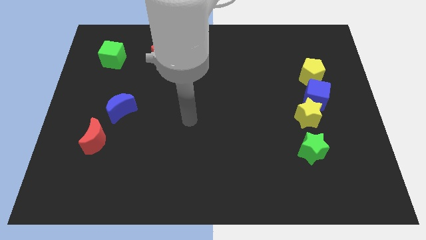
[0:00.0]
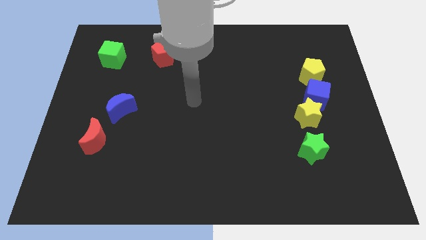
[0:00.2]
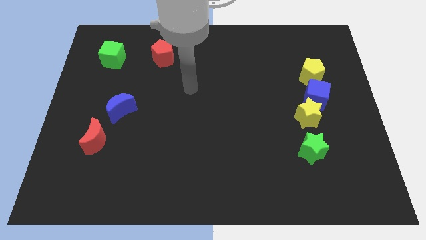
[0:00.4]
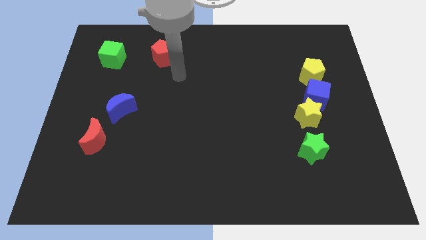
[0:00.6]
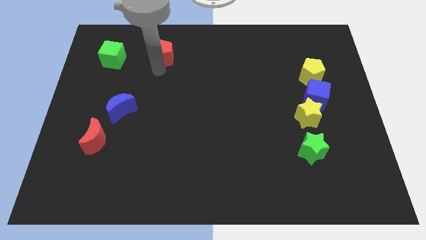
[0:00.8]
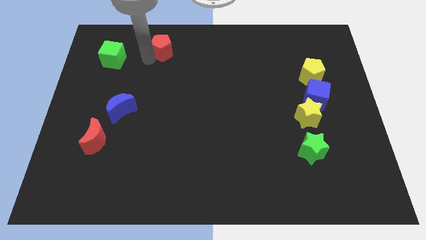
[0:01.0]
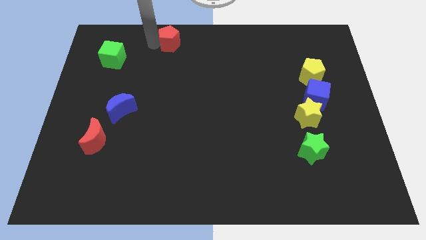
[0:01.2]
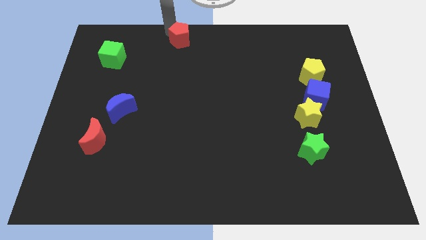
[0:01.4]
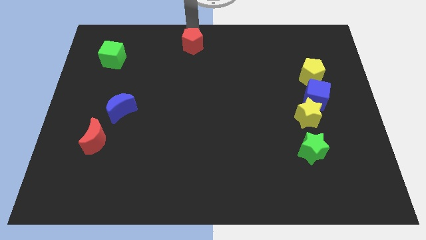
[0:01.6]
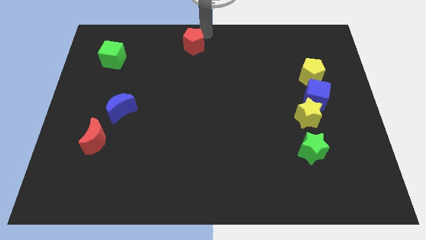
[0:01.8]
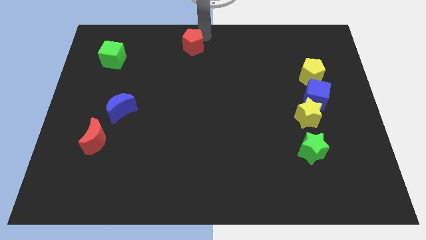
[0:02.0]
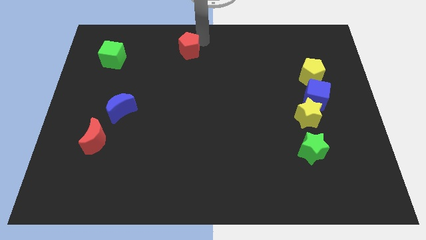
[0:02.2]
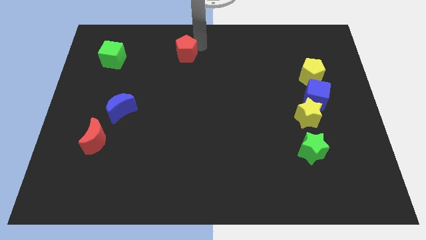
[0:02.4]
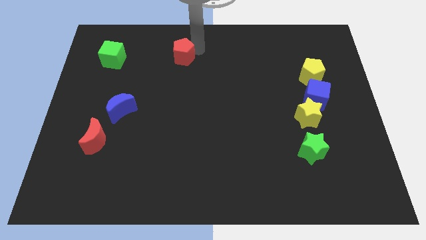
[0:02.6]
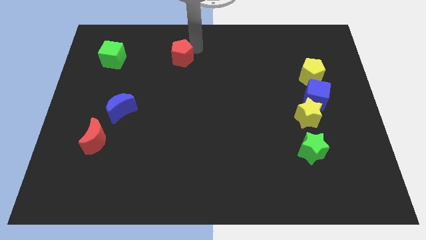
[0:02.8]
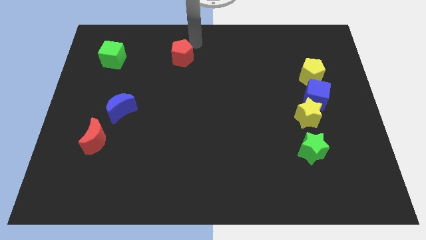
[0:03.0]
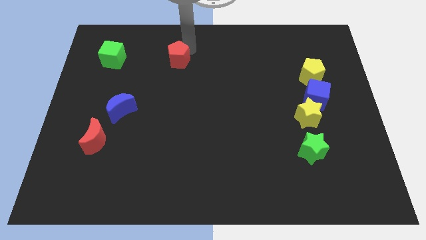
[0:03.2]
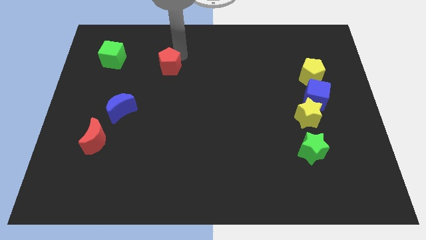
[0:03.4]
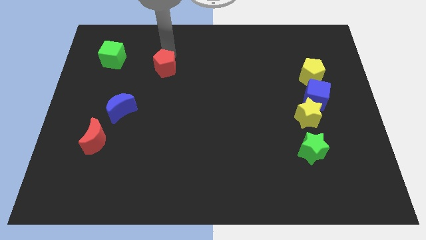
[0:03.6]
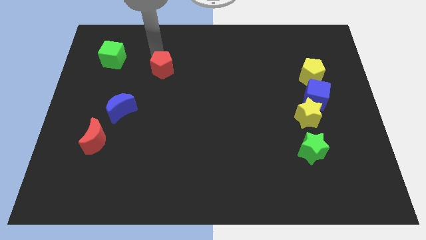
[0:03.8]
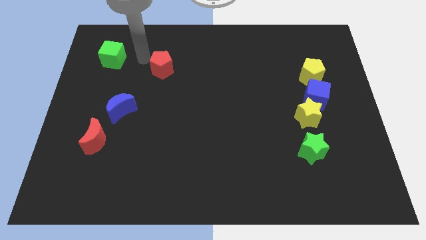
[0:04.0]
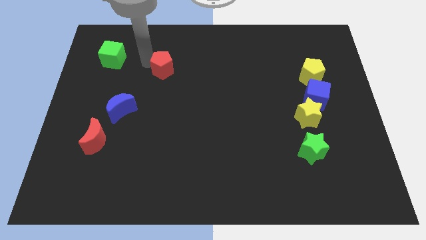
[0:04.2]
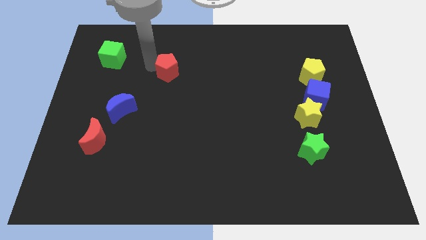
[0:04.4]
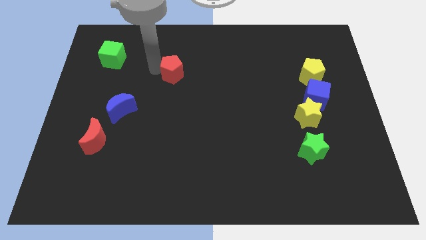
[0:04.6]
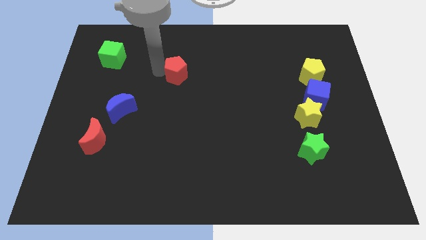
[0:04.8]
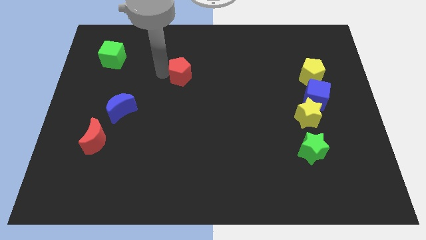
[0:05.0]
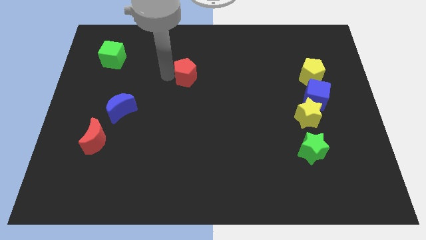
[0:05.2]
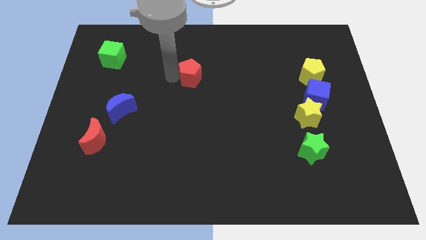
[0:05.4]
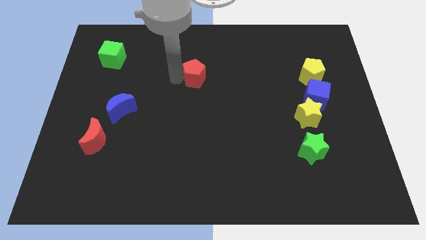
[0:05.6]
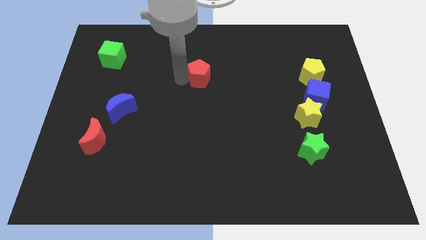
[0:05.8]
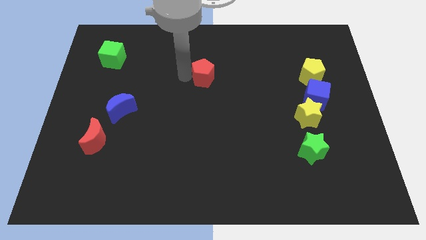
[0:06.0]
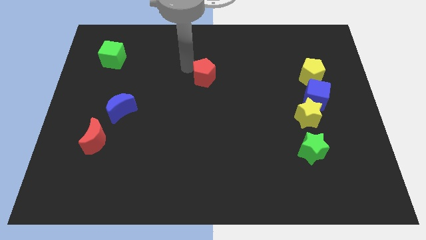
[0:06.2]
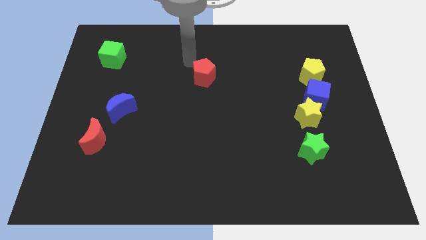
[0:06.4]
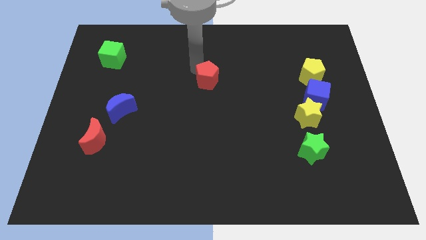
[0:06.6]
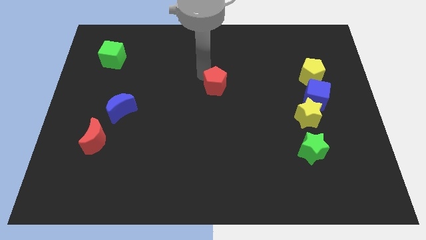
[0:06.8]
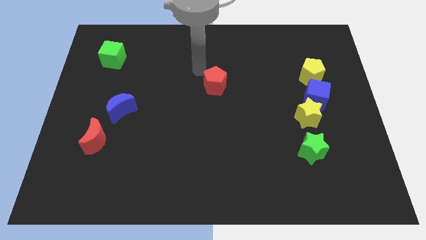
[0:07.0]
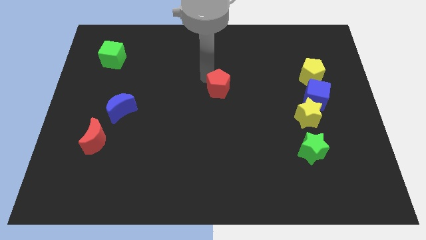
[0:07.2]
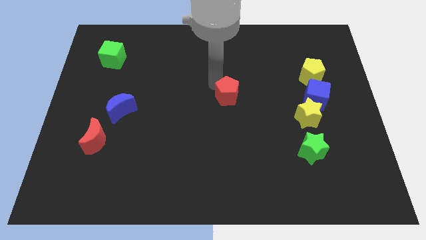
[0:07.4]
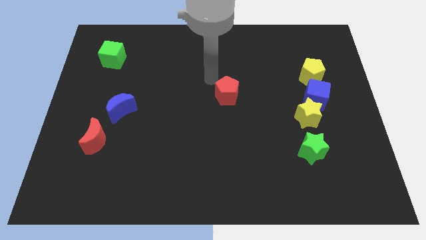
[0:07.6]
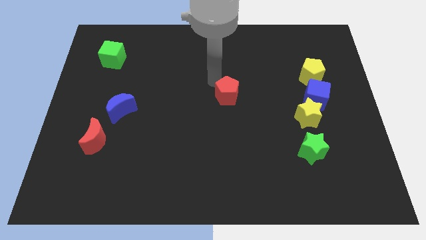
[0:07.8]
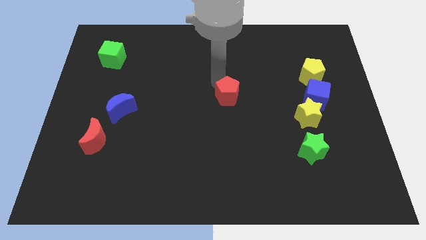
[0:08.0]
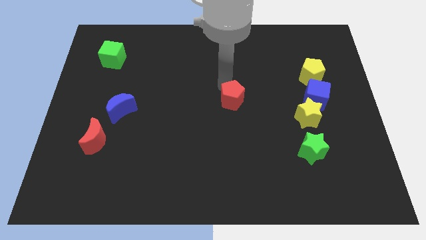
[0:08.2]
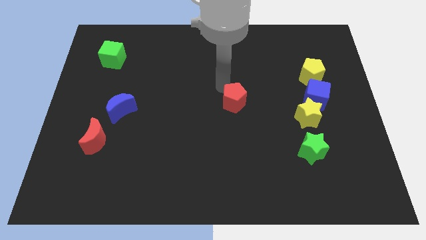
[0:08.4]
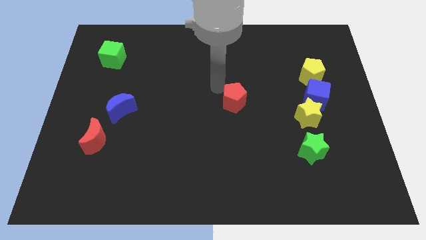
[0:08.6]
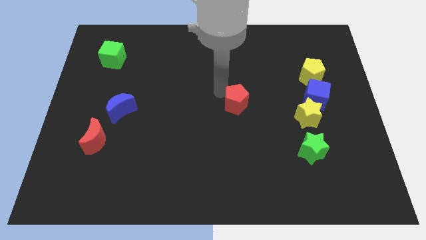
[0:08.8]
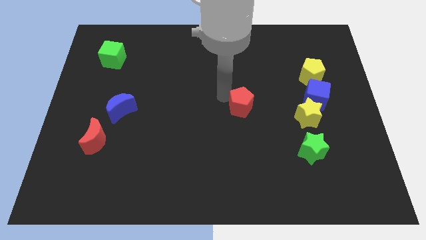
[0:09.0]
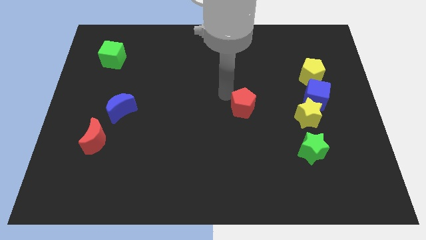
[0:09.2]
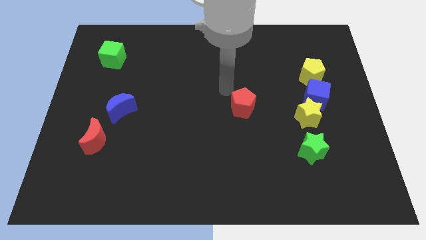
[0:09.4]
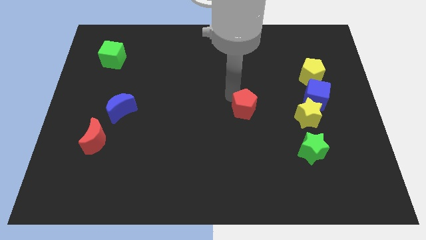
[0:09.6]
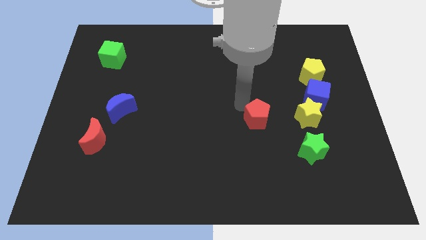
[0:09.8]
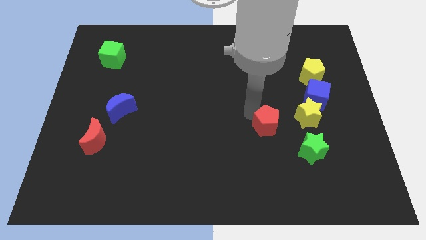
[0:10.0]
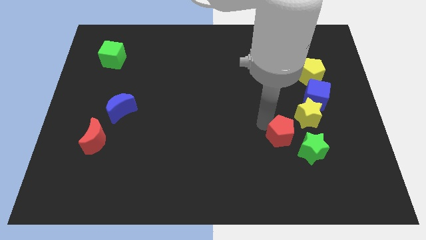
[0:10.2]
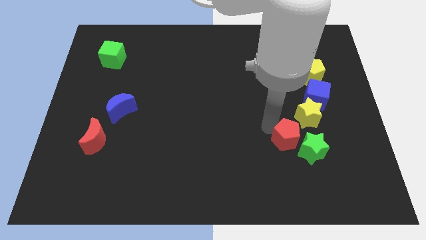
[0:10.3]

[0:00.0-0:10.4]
push the red pentagon to the green star

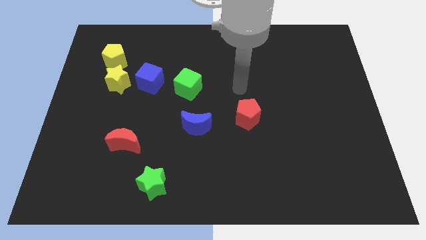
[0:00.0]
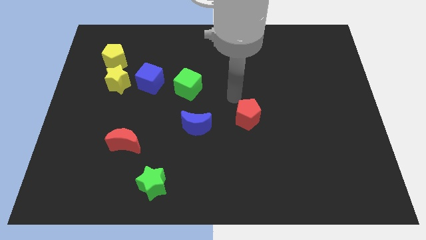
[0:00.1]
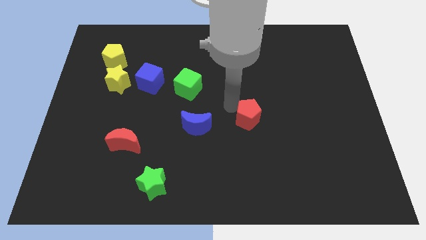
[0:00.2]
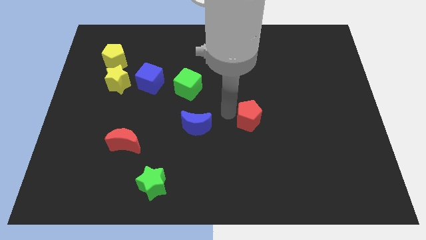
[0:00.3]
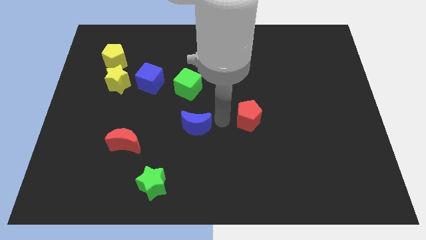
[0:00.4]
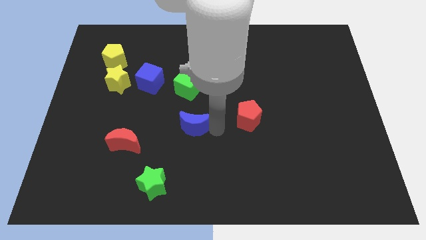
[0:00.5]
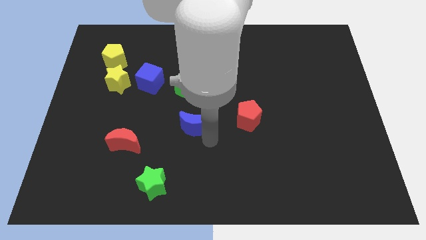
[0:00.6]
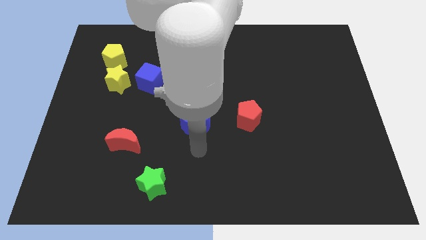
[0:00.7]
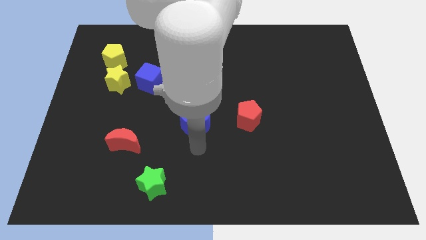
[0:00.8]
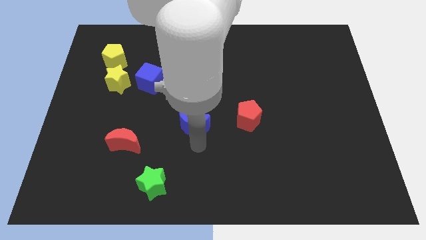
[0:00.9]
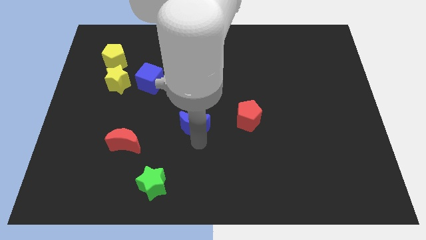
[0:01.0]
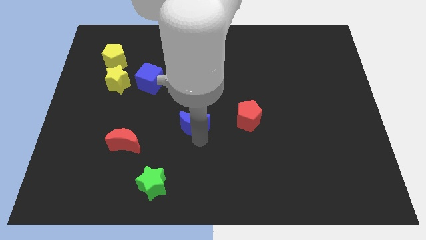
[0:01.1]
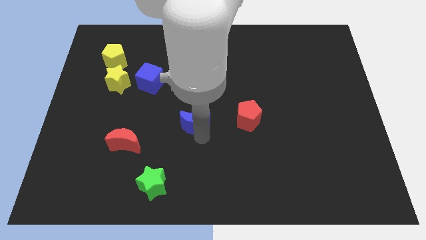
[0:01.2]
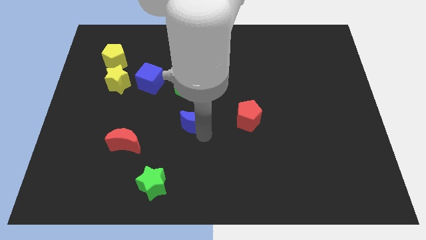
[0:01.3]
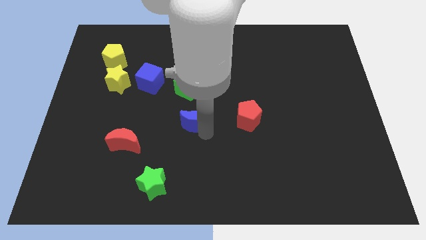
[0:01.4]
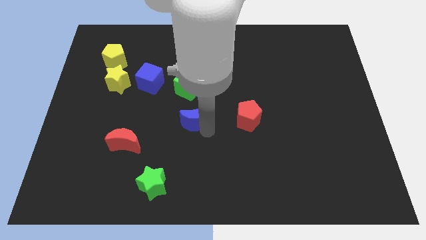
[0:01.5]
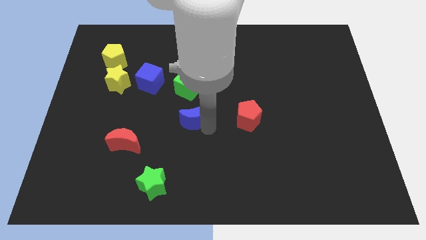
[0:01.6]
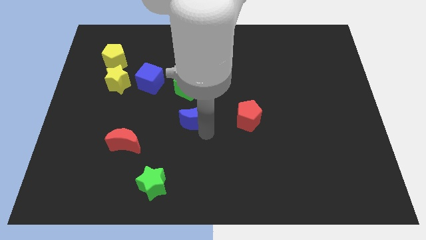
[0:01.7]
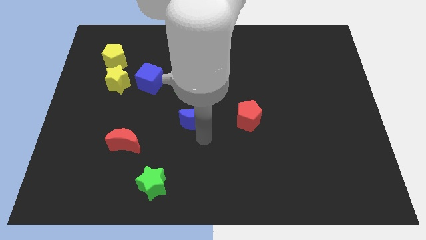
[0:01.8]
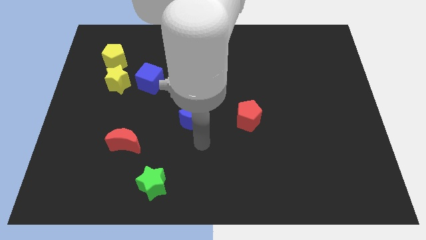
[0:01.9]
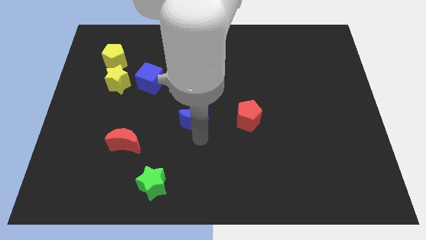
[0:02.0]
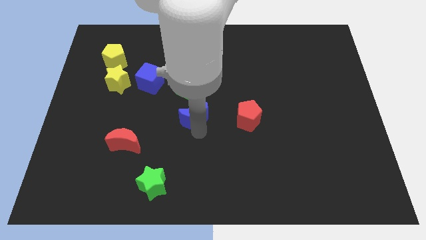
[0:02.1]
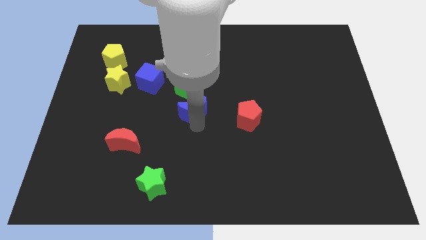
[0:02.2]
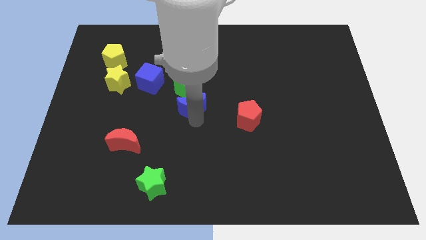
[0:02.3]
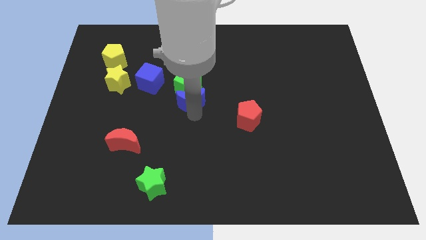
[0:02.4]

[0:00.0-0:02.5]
move the blue moon towards the green cube
